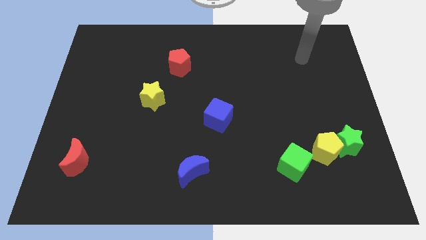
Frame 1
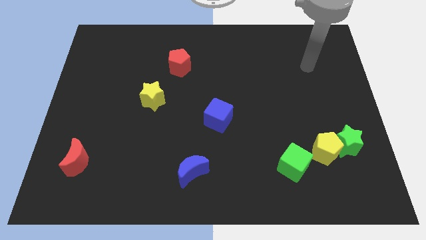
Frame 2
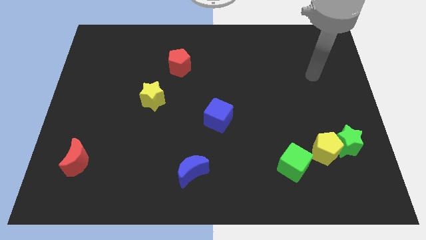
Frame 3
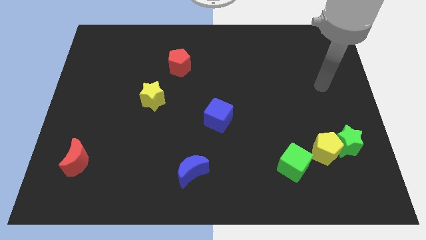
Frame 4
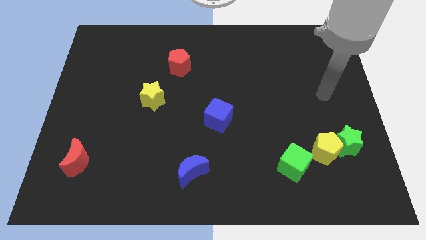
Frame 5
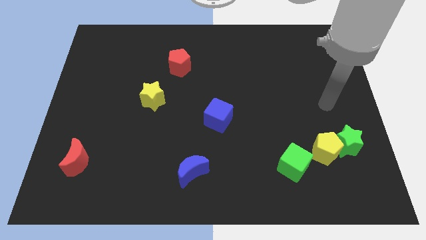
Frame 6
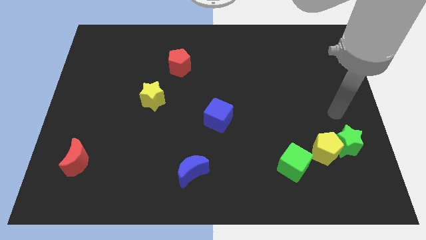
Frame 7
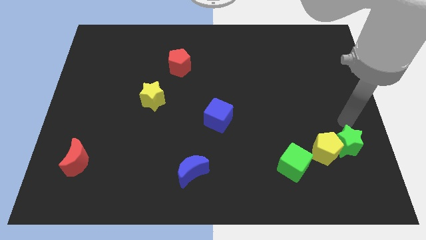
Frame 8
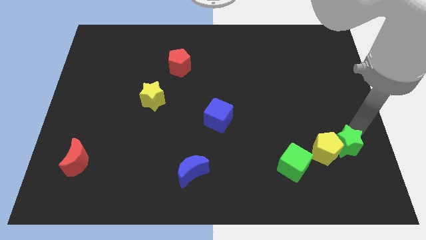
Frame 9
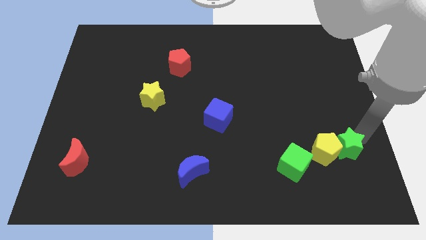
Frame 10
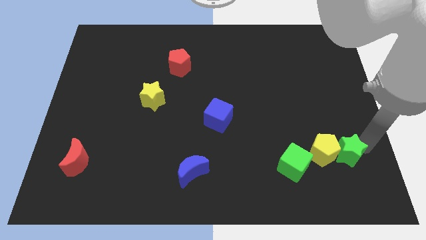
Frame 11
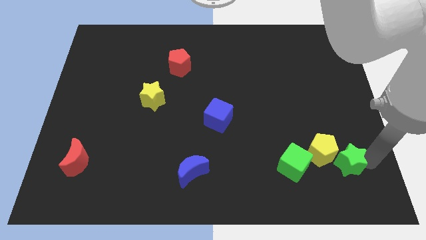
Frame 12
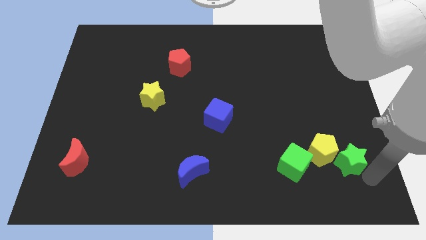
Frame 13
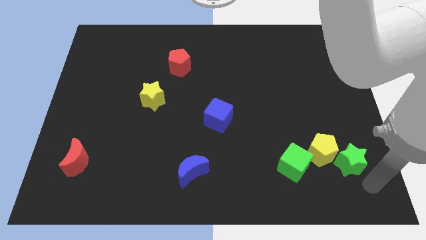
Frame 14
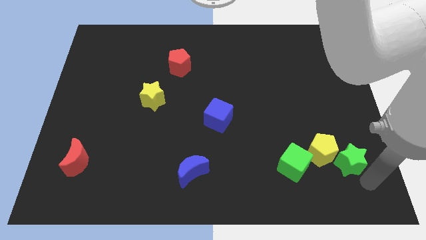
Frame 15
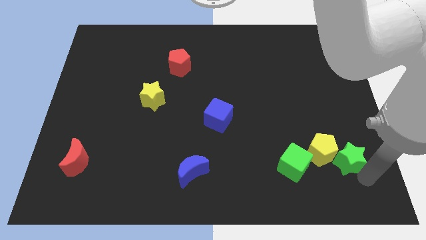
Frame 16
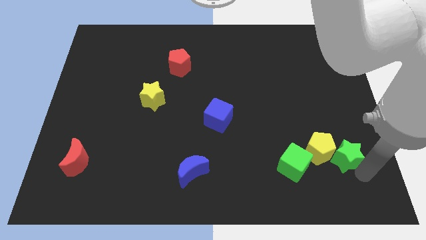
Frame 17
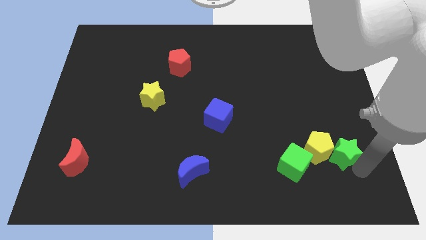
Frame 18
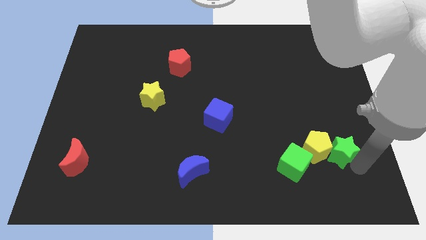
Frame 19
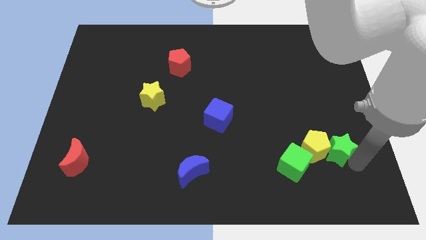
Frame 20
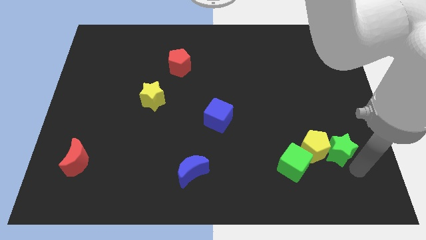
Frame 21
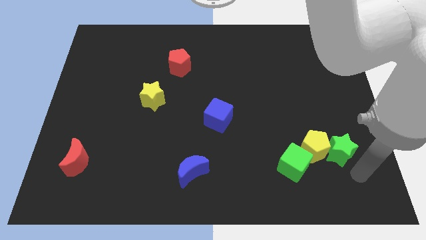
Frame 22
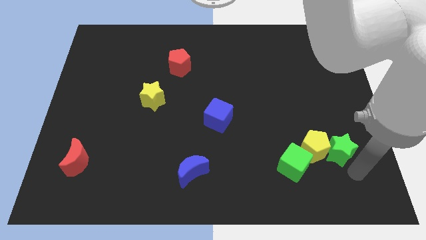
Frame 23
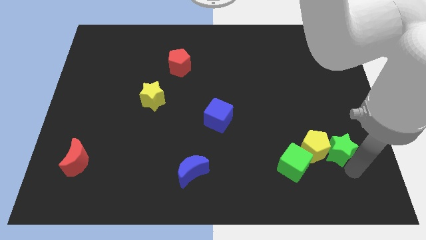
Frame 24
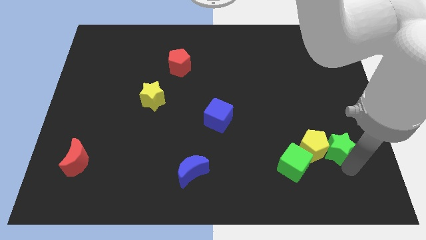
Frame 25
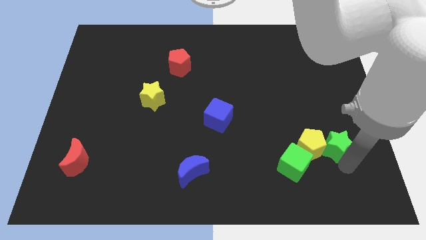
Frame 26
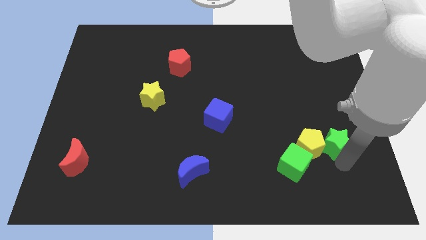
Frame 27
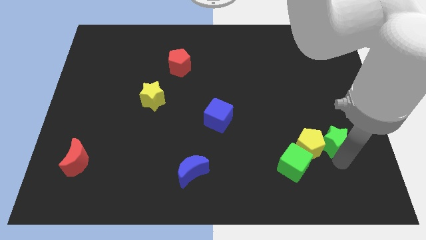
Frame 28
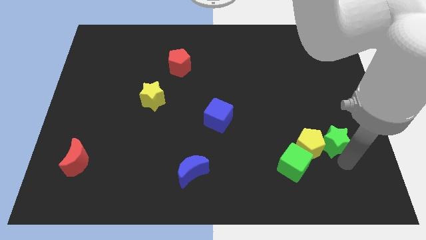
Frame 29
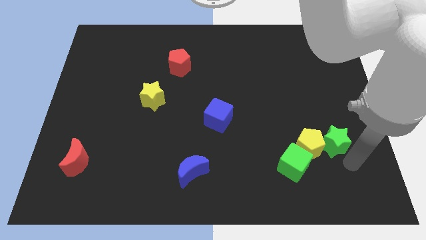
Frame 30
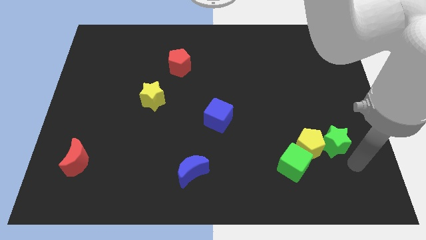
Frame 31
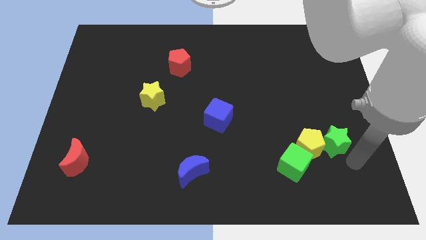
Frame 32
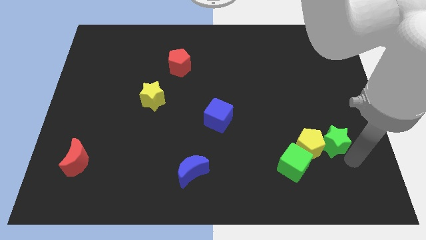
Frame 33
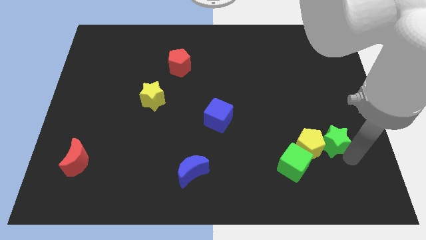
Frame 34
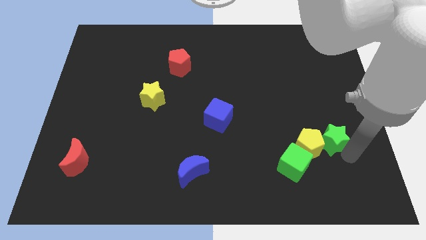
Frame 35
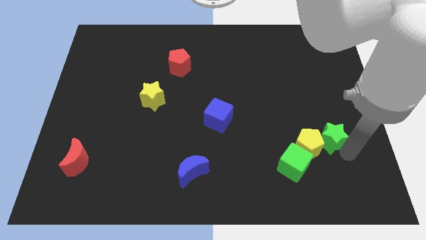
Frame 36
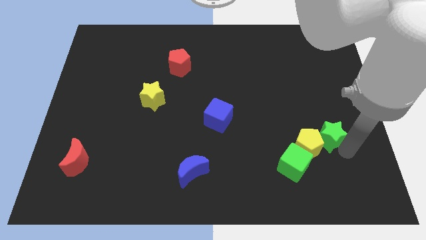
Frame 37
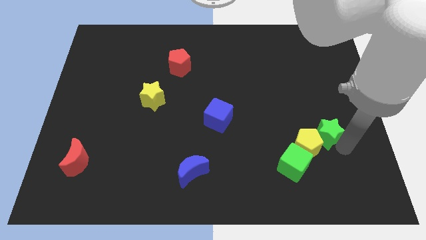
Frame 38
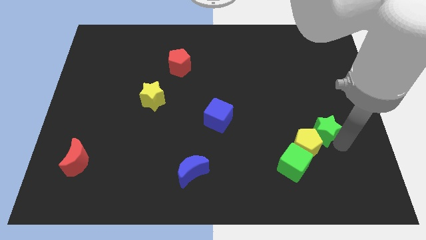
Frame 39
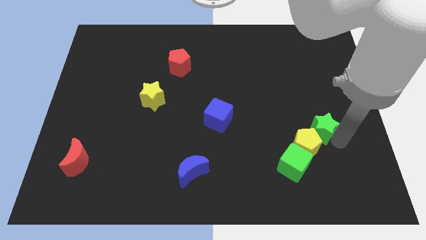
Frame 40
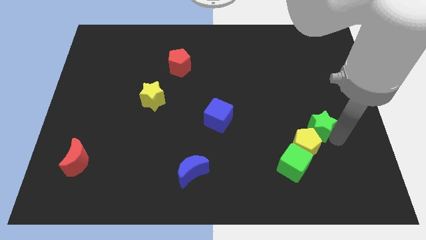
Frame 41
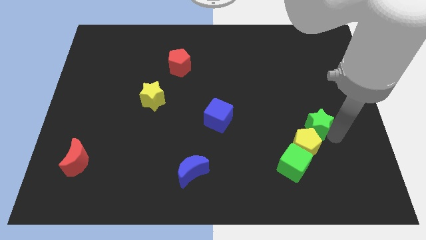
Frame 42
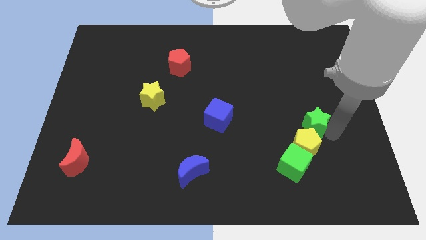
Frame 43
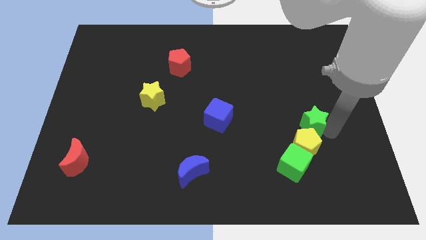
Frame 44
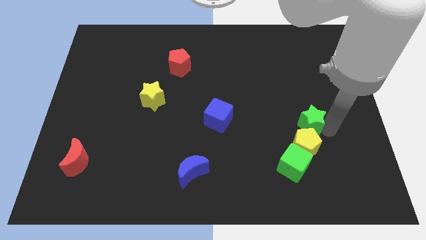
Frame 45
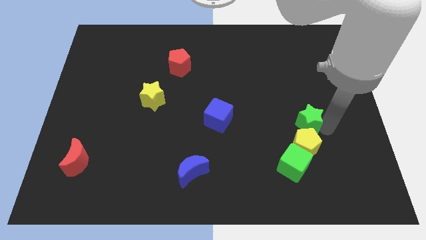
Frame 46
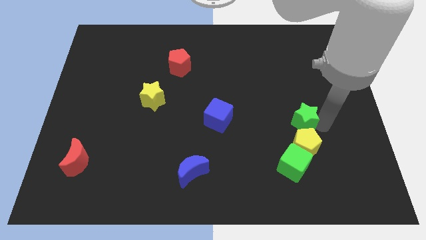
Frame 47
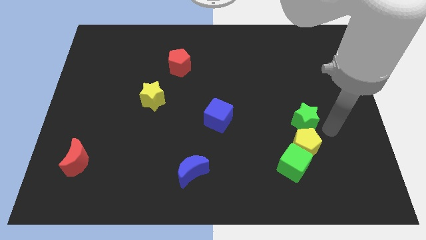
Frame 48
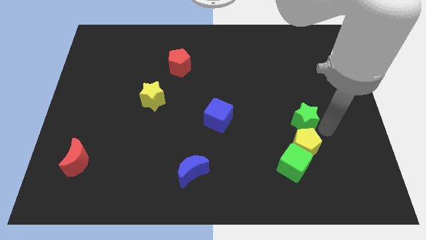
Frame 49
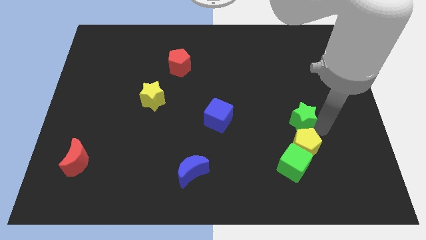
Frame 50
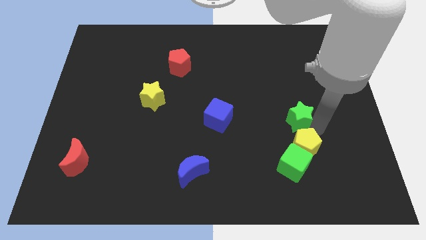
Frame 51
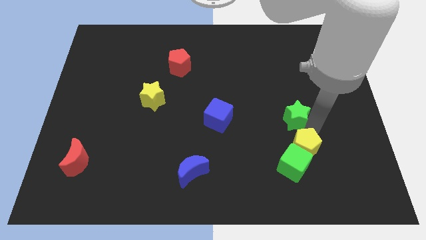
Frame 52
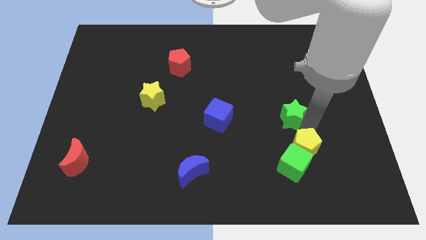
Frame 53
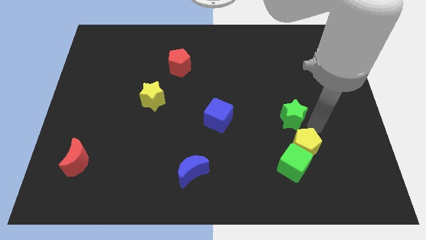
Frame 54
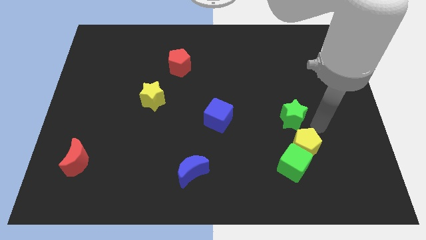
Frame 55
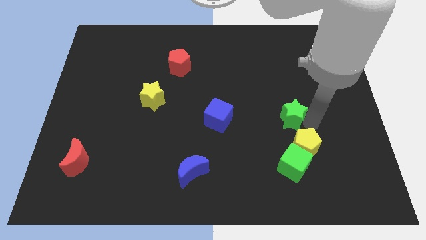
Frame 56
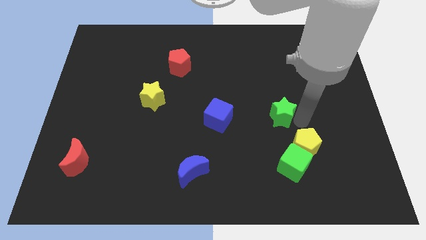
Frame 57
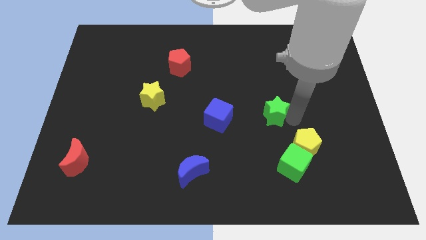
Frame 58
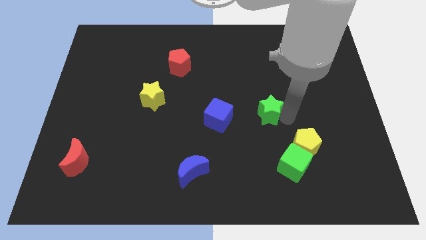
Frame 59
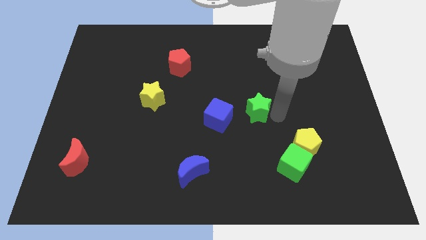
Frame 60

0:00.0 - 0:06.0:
put the green star to the middle of the board

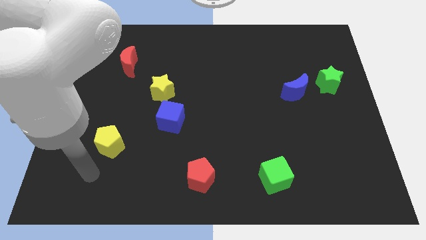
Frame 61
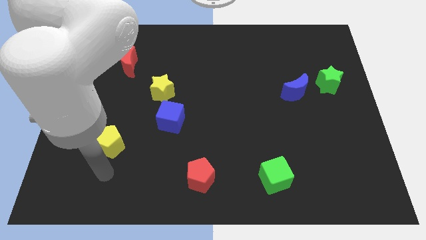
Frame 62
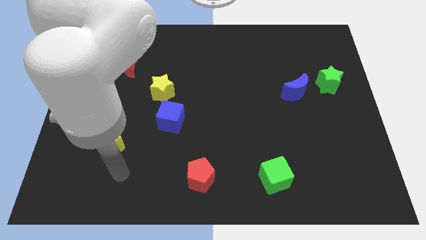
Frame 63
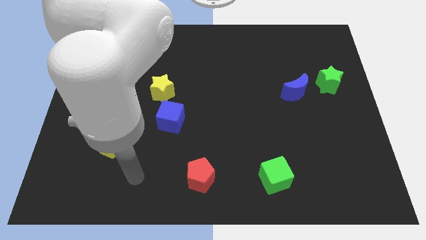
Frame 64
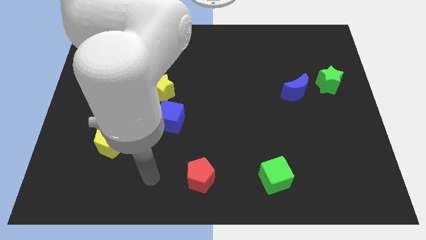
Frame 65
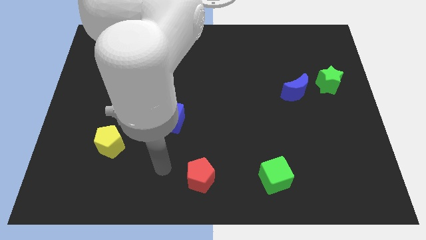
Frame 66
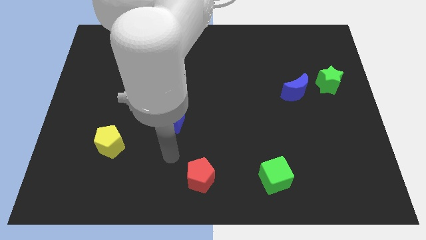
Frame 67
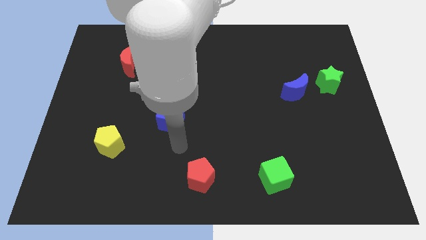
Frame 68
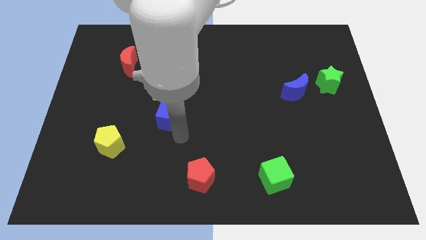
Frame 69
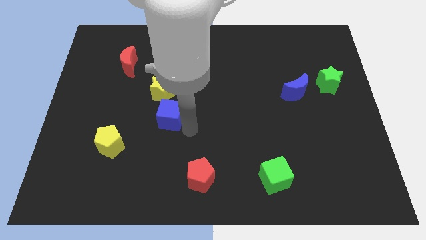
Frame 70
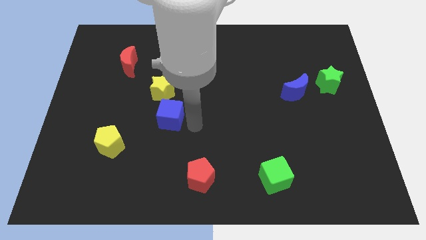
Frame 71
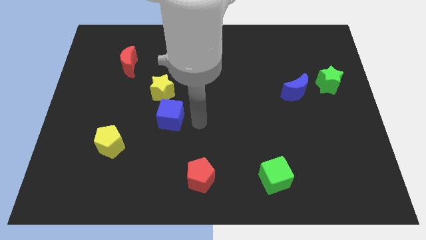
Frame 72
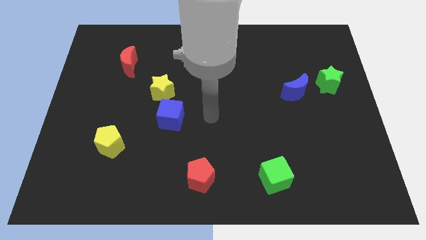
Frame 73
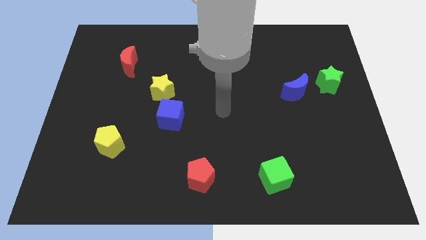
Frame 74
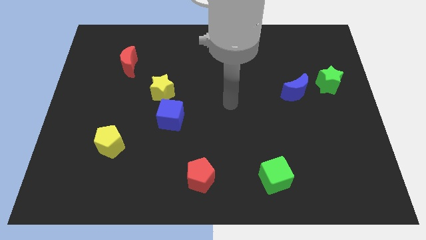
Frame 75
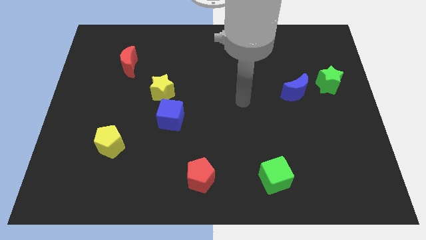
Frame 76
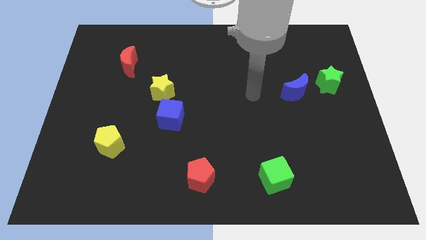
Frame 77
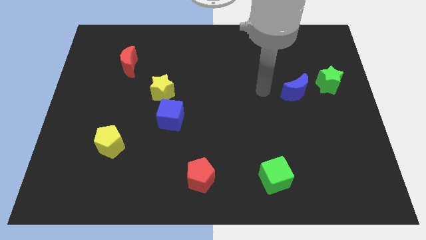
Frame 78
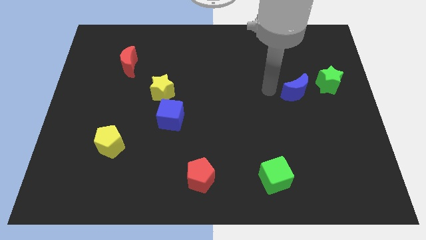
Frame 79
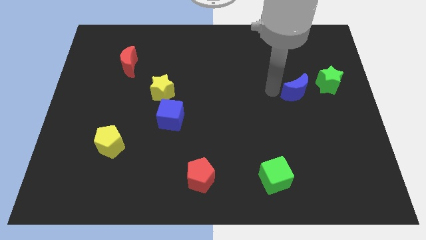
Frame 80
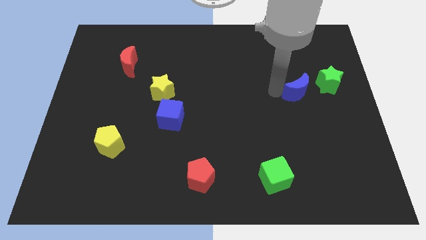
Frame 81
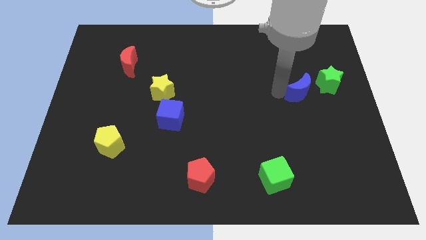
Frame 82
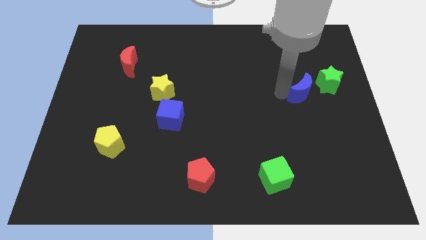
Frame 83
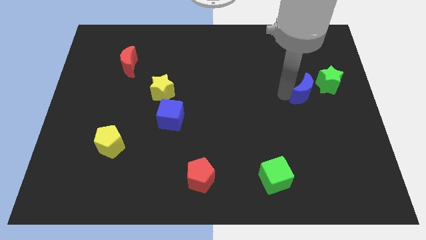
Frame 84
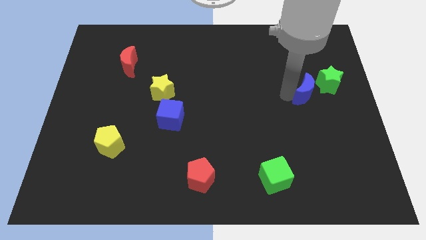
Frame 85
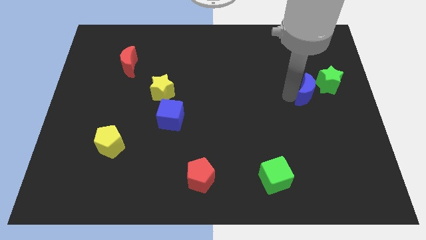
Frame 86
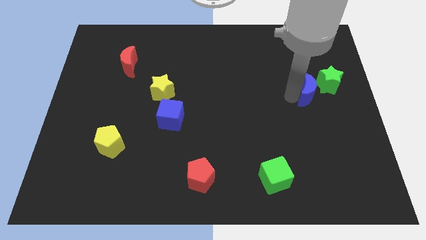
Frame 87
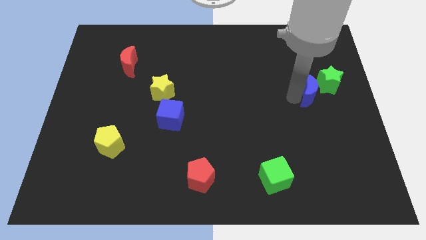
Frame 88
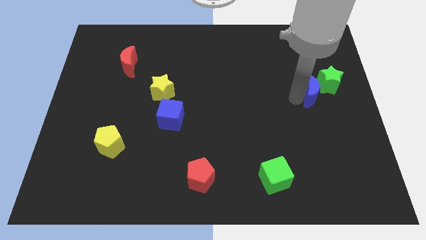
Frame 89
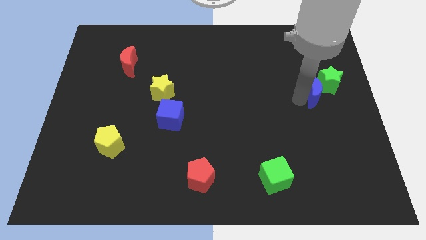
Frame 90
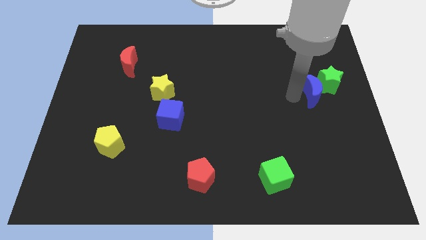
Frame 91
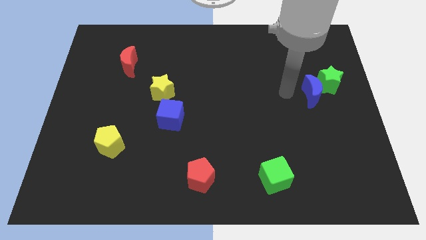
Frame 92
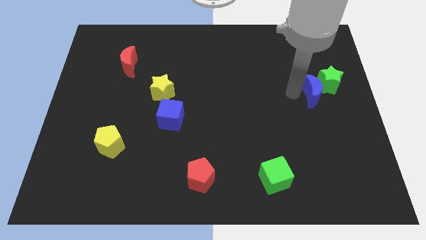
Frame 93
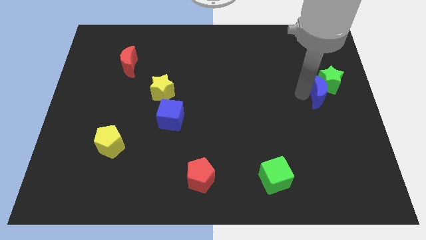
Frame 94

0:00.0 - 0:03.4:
push the blue moon to the right side
